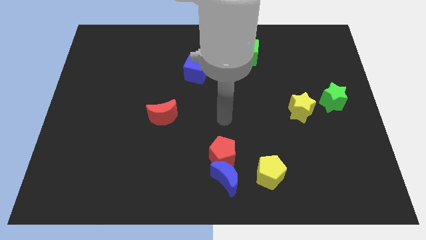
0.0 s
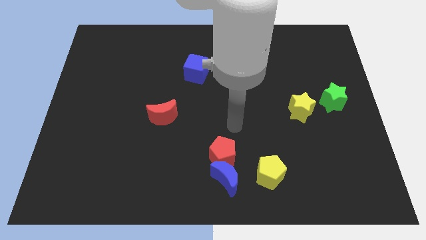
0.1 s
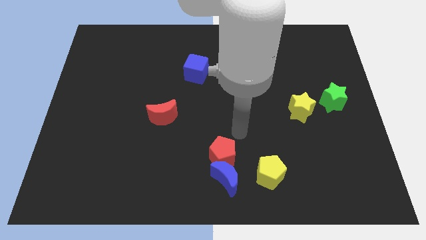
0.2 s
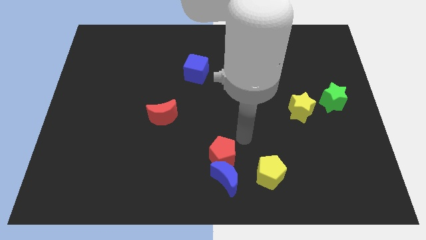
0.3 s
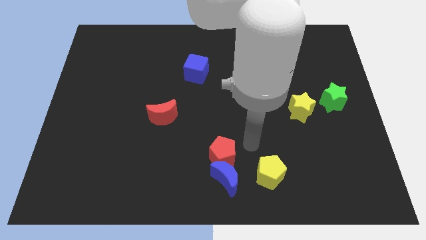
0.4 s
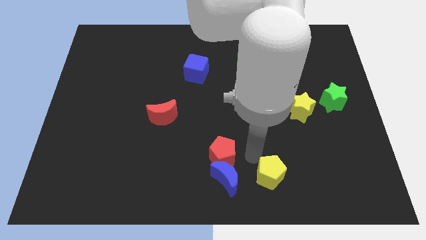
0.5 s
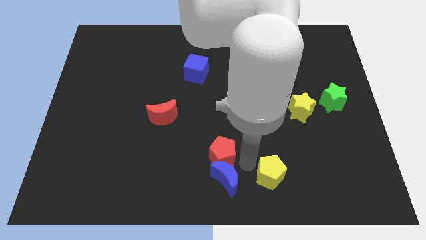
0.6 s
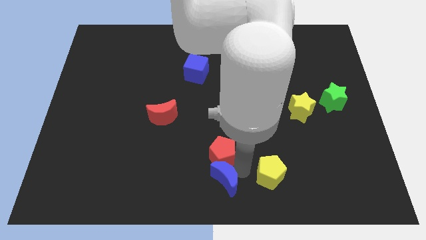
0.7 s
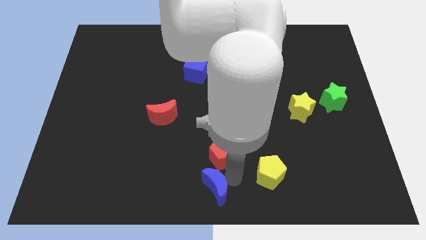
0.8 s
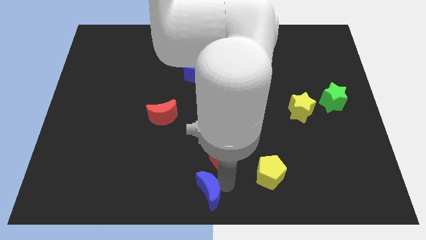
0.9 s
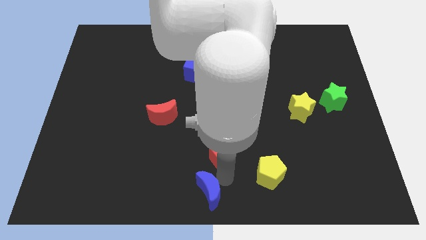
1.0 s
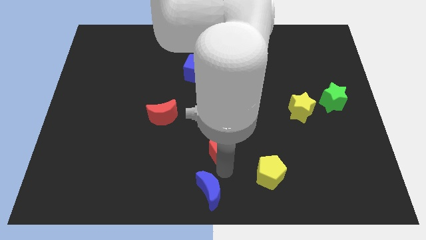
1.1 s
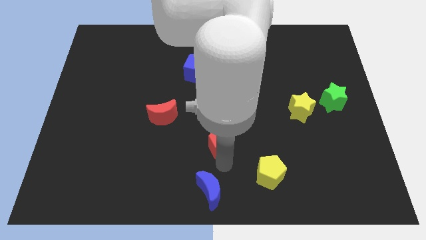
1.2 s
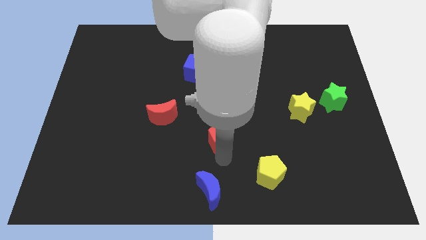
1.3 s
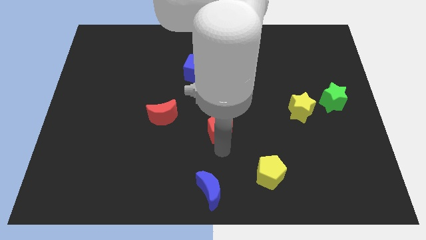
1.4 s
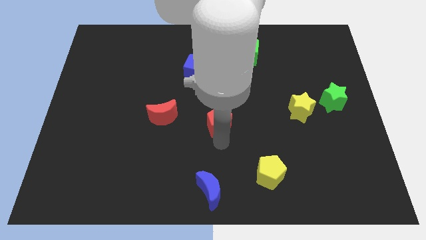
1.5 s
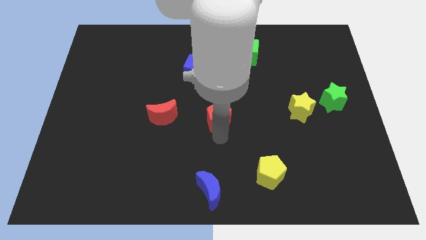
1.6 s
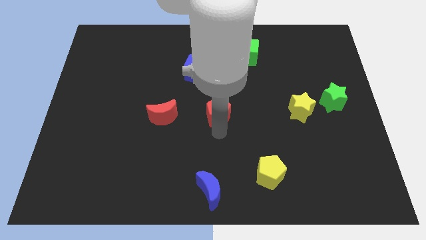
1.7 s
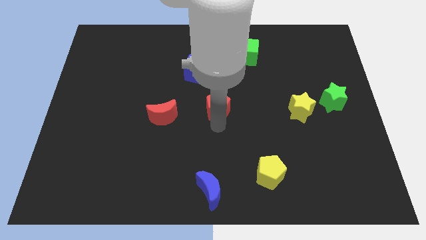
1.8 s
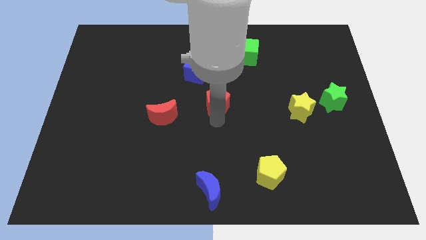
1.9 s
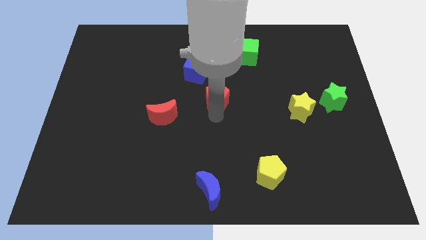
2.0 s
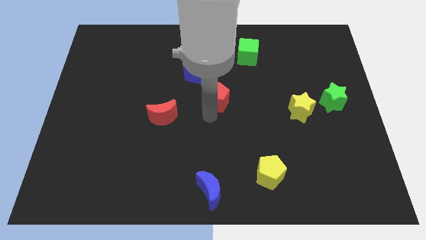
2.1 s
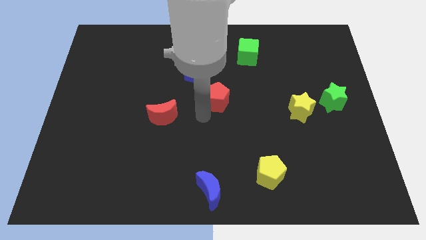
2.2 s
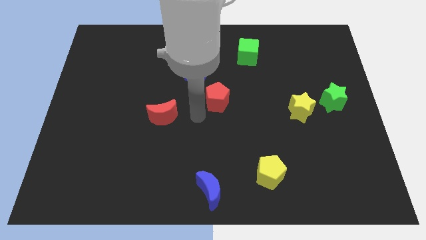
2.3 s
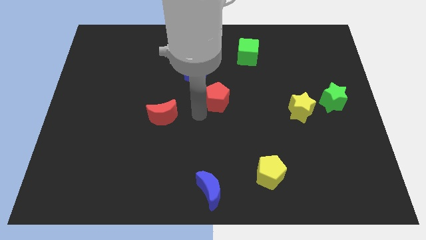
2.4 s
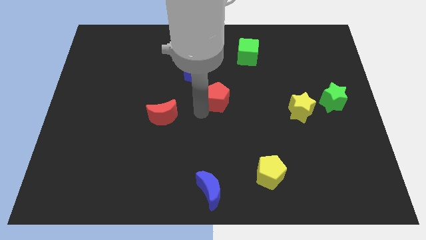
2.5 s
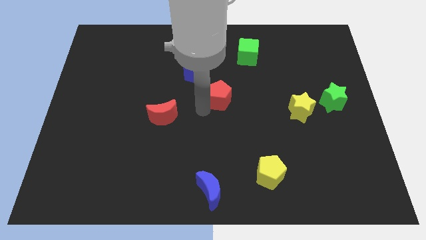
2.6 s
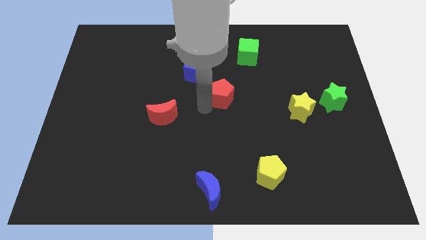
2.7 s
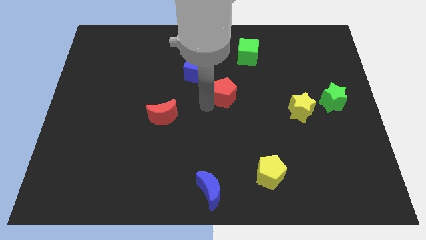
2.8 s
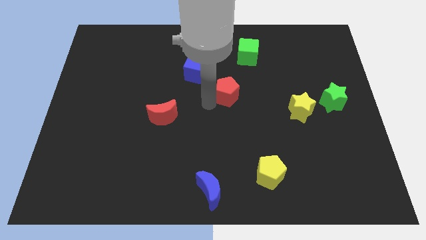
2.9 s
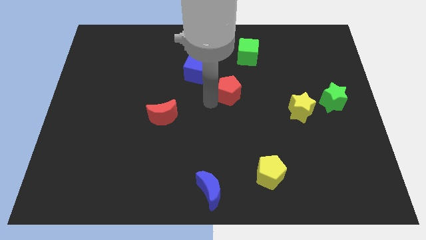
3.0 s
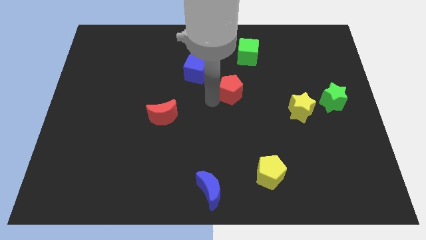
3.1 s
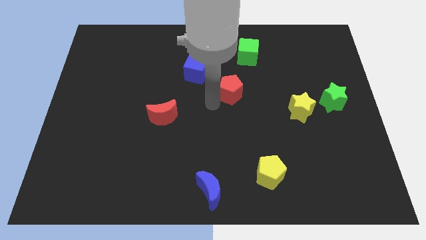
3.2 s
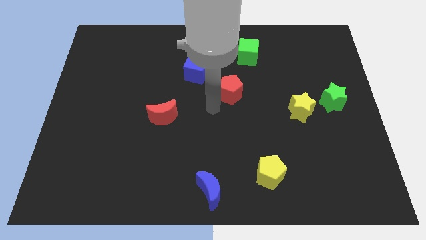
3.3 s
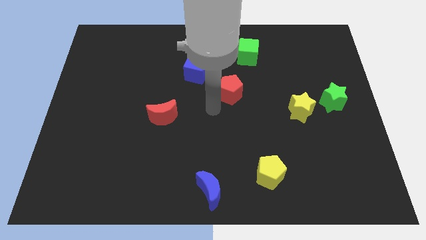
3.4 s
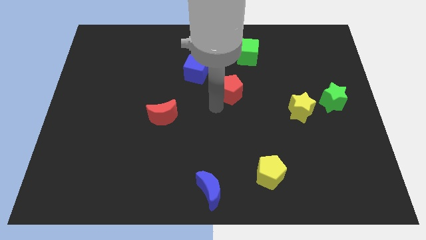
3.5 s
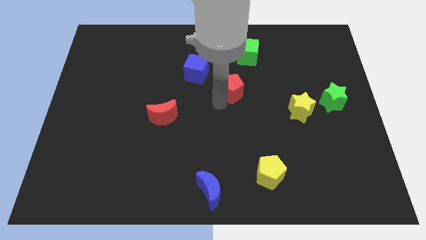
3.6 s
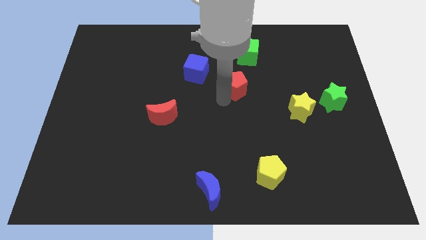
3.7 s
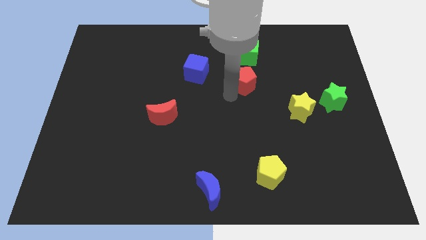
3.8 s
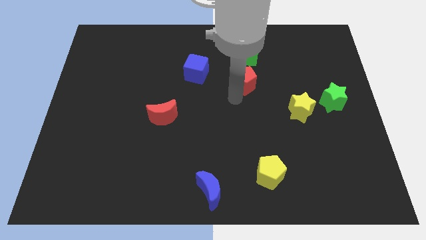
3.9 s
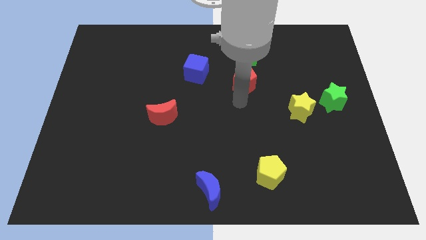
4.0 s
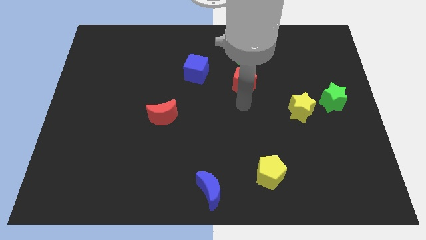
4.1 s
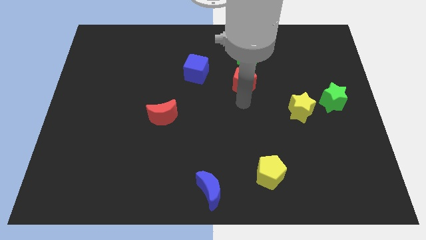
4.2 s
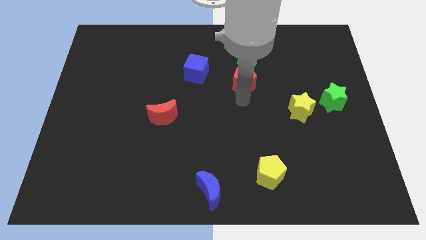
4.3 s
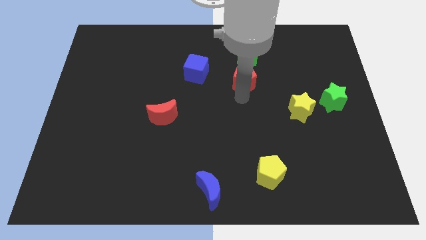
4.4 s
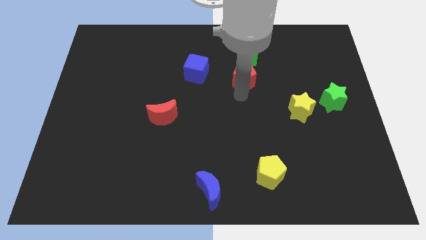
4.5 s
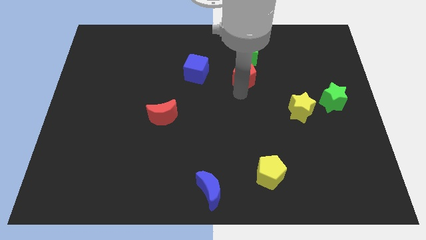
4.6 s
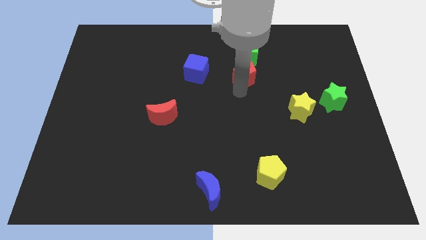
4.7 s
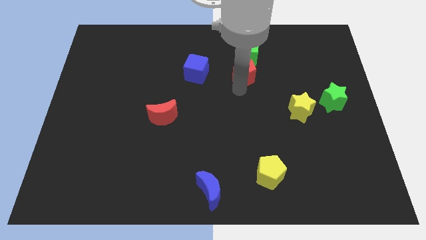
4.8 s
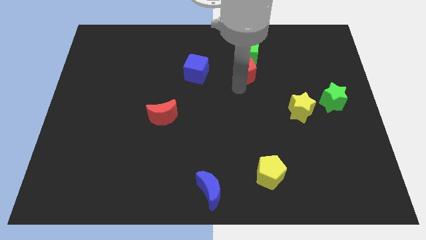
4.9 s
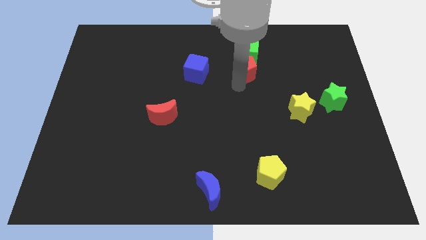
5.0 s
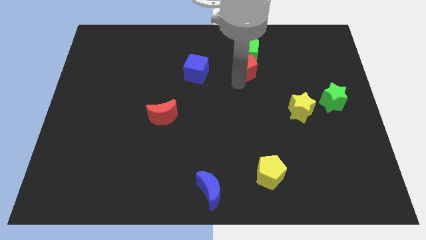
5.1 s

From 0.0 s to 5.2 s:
move the red pentagon close to the green cube

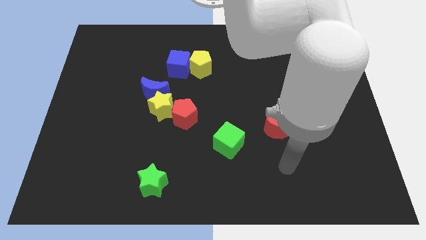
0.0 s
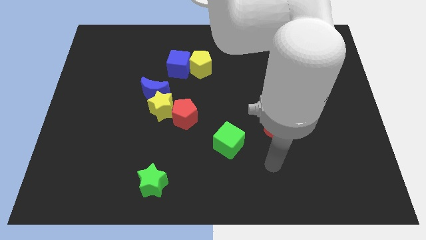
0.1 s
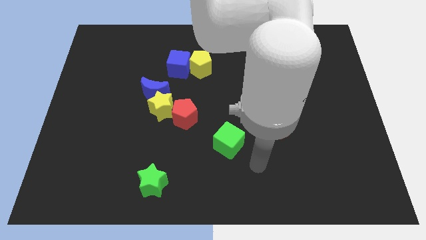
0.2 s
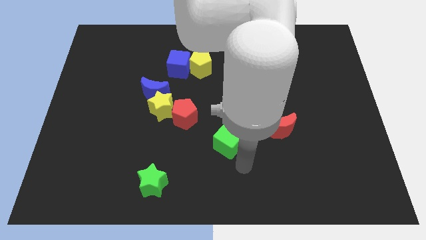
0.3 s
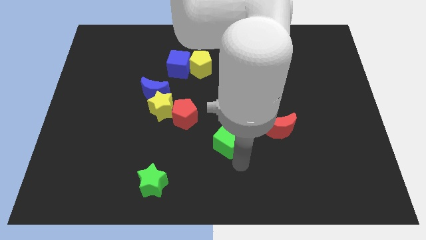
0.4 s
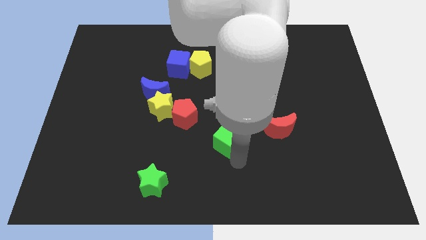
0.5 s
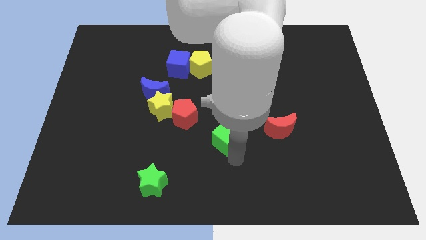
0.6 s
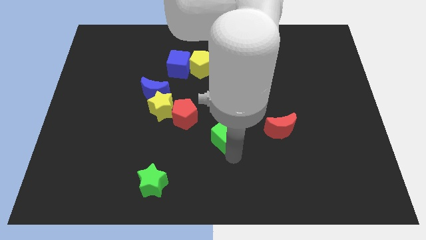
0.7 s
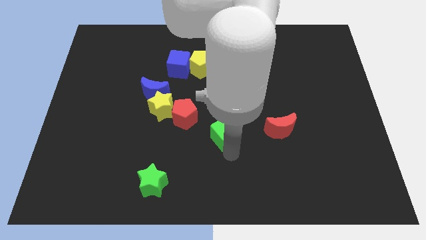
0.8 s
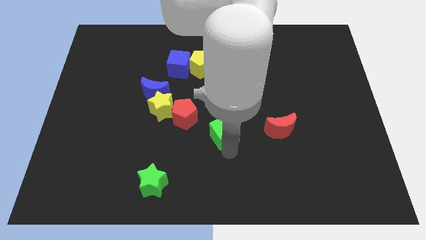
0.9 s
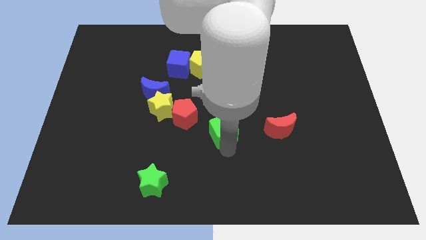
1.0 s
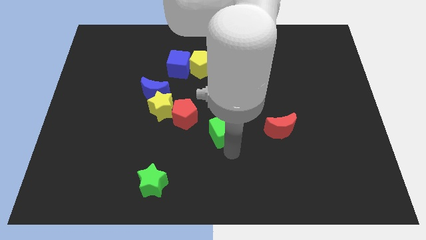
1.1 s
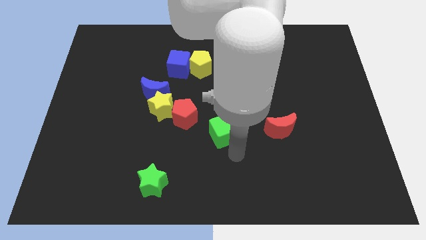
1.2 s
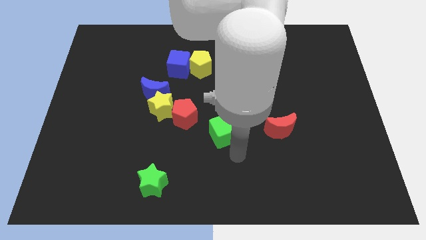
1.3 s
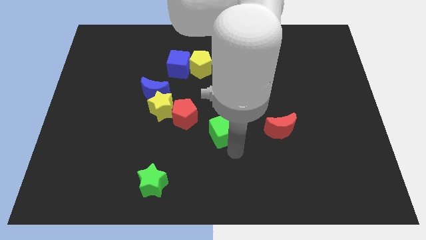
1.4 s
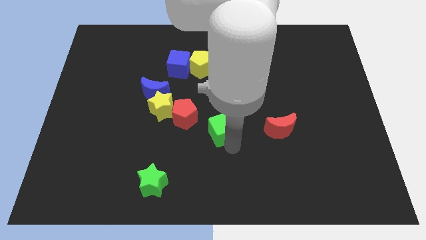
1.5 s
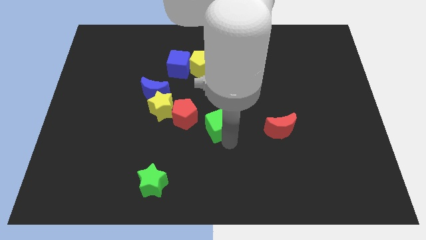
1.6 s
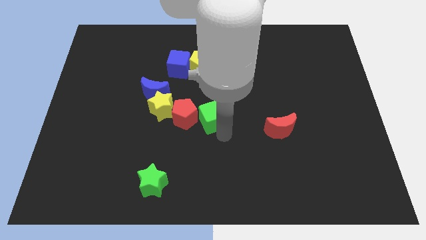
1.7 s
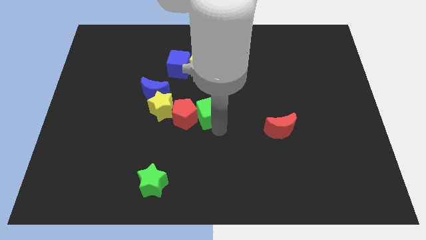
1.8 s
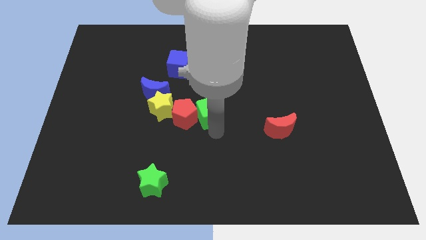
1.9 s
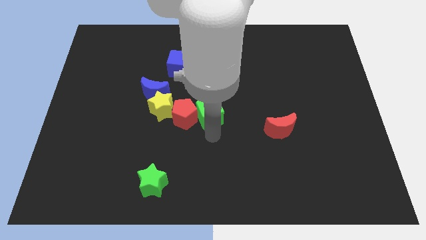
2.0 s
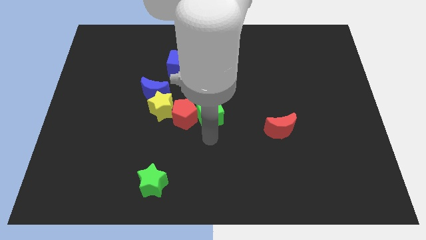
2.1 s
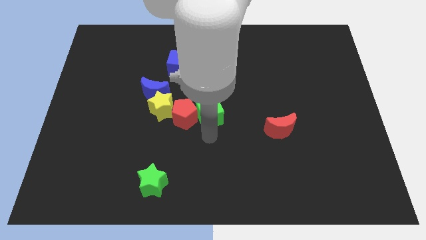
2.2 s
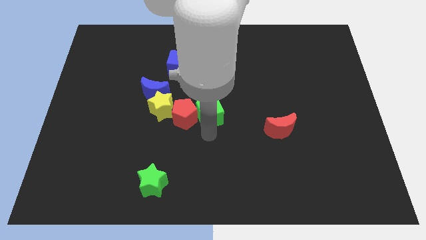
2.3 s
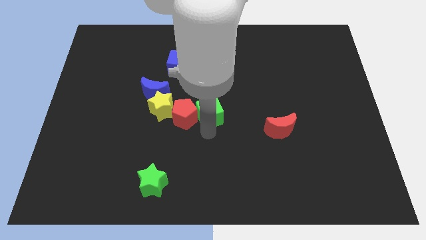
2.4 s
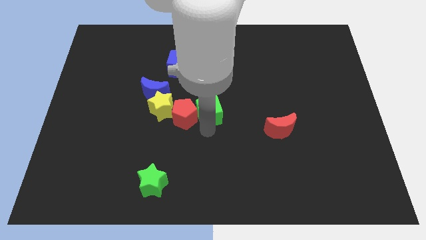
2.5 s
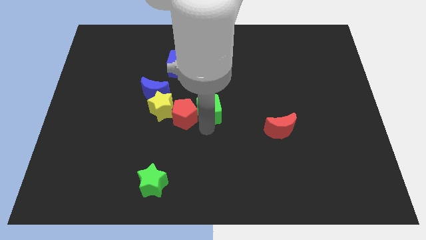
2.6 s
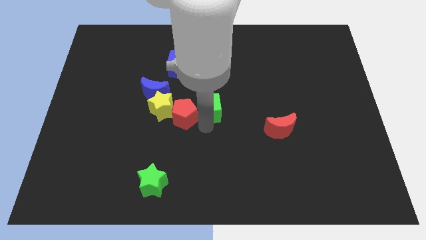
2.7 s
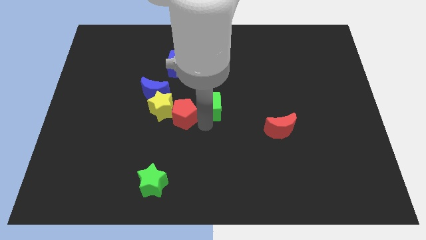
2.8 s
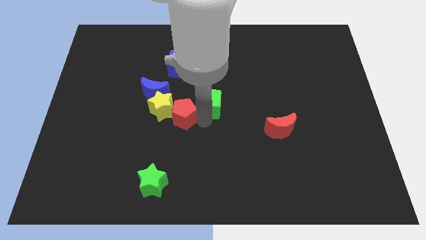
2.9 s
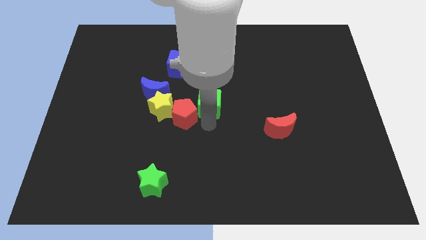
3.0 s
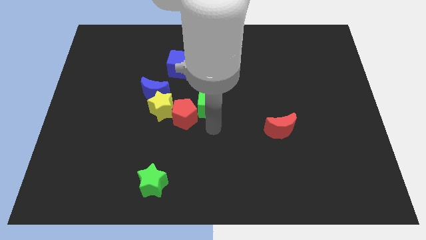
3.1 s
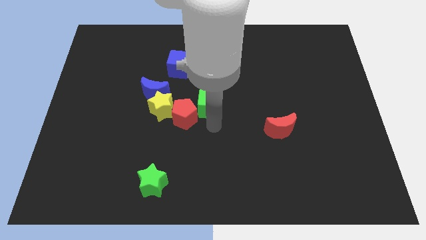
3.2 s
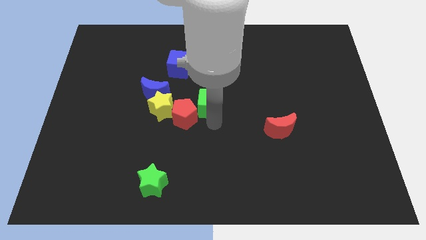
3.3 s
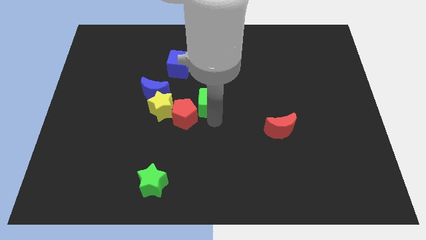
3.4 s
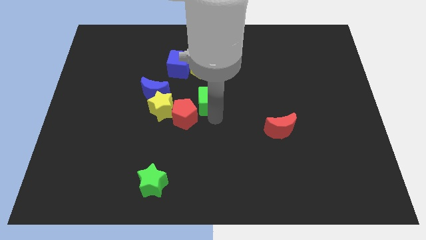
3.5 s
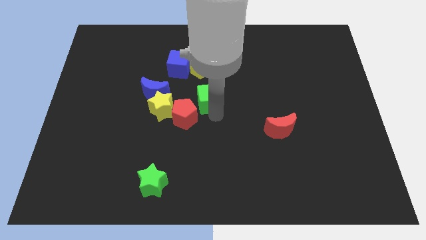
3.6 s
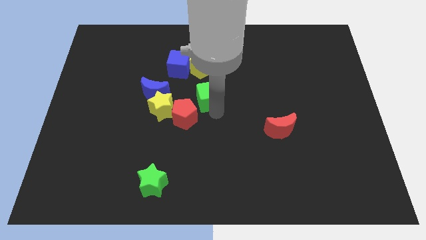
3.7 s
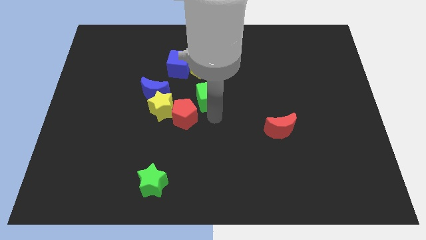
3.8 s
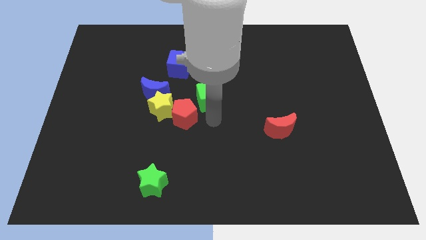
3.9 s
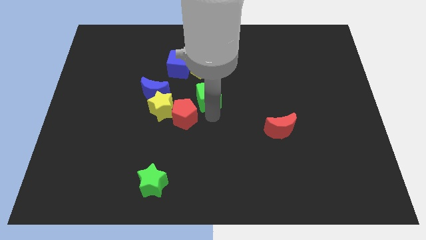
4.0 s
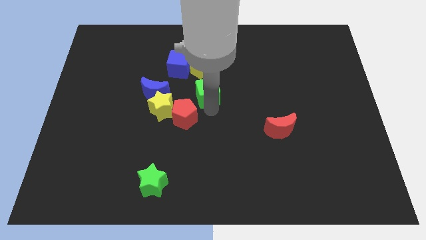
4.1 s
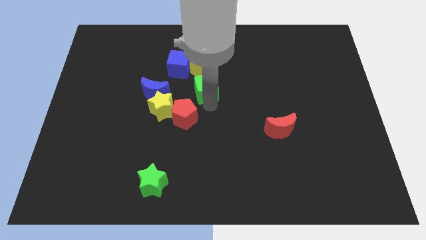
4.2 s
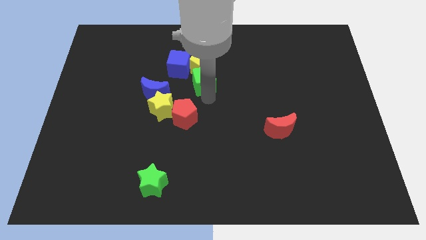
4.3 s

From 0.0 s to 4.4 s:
push the green cube towards the yellow pentagon
